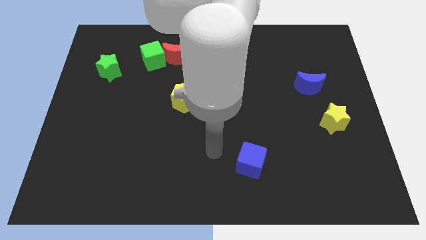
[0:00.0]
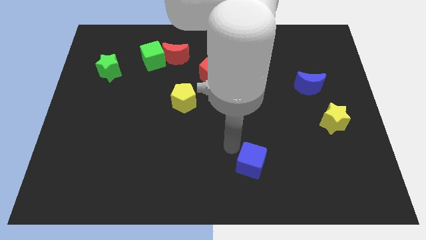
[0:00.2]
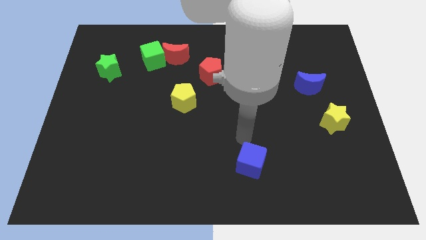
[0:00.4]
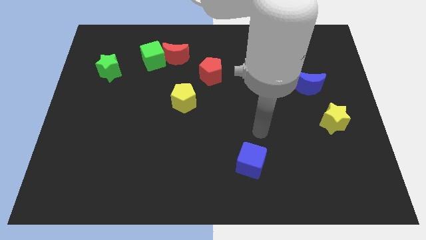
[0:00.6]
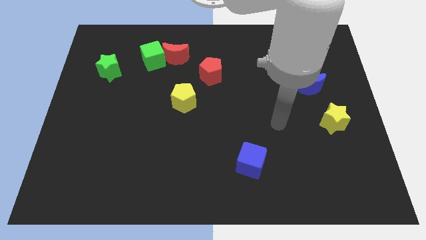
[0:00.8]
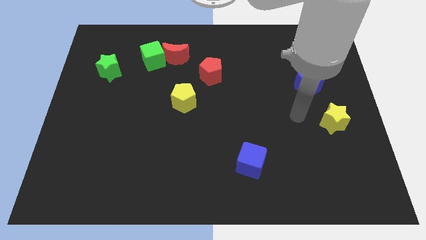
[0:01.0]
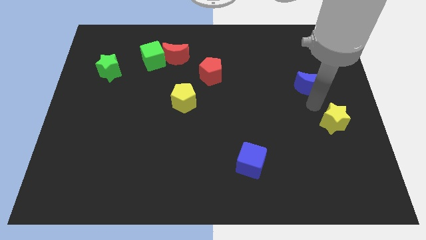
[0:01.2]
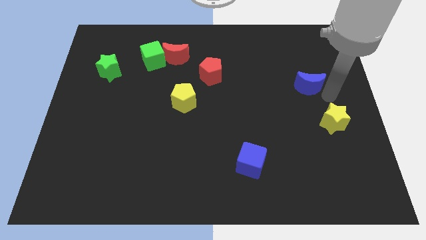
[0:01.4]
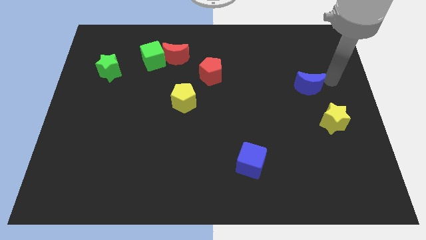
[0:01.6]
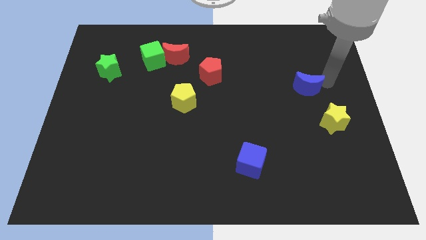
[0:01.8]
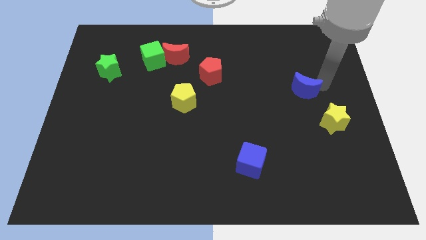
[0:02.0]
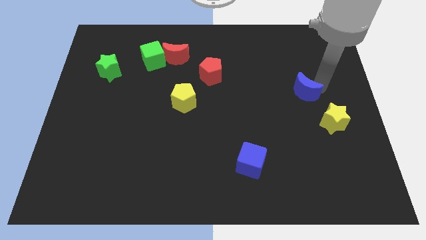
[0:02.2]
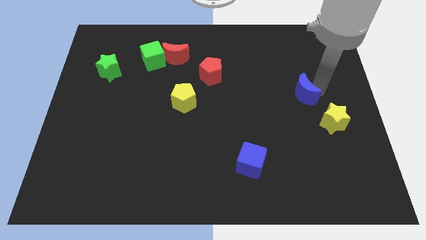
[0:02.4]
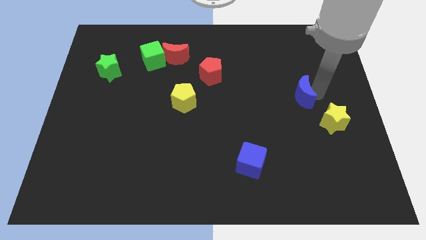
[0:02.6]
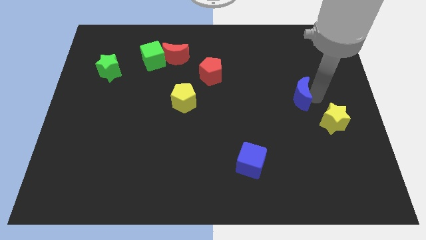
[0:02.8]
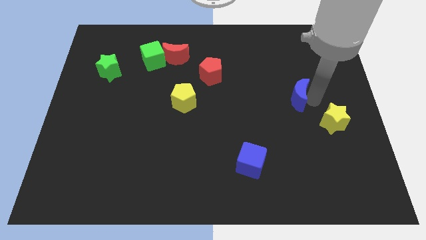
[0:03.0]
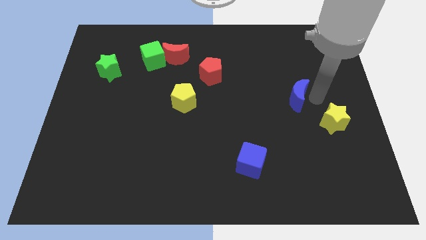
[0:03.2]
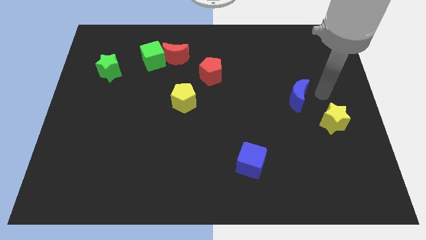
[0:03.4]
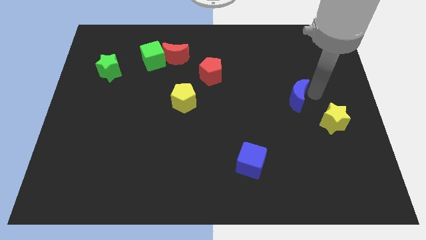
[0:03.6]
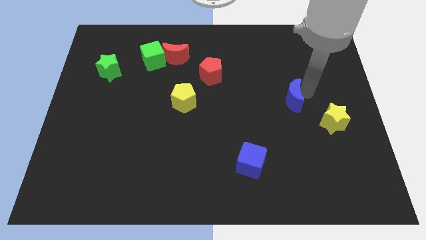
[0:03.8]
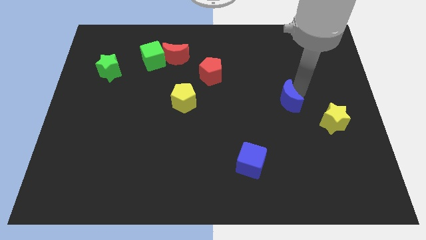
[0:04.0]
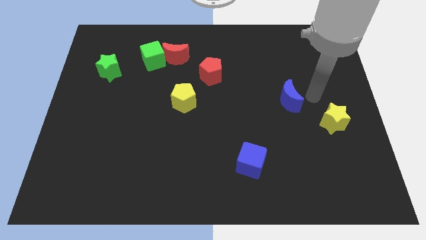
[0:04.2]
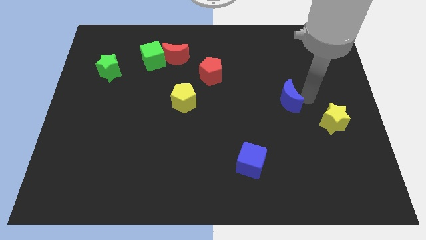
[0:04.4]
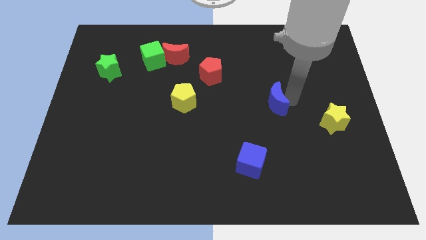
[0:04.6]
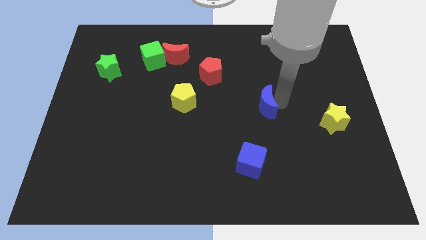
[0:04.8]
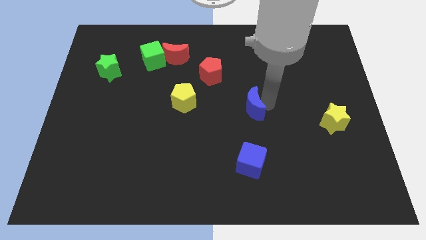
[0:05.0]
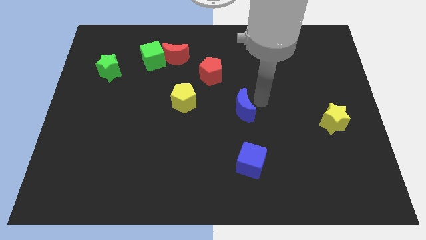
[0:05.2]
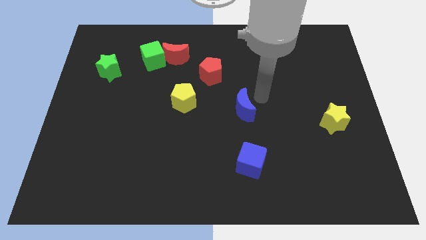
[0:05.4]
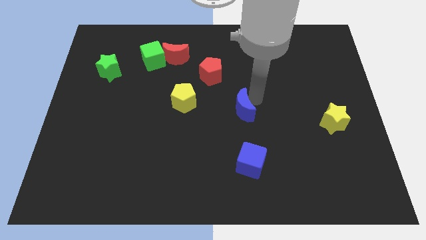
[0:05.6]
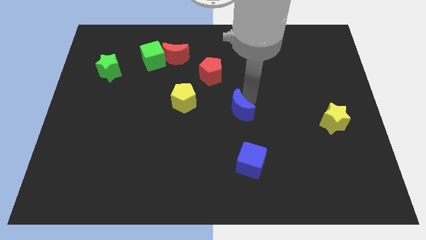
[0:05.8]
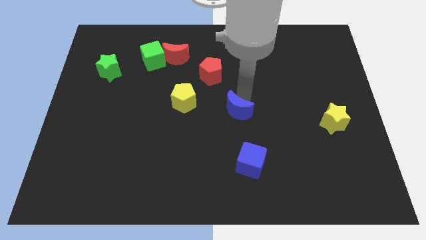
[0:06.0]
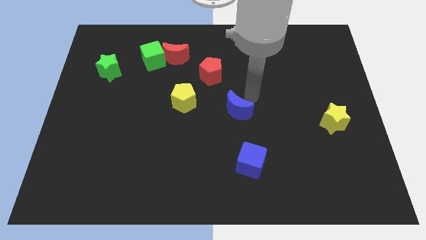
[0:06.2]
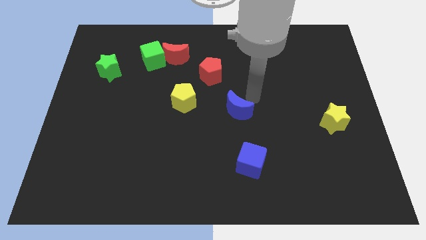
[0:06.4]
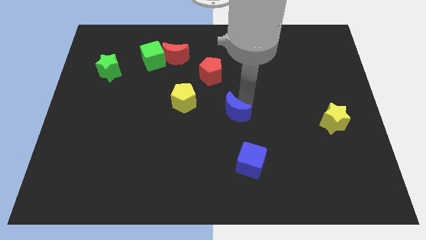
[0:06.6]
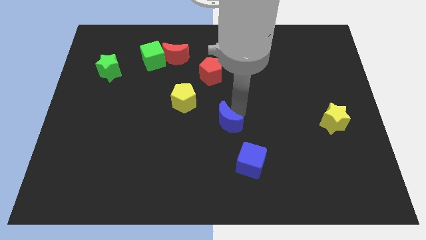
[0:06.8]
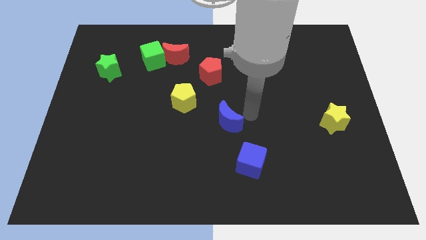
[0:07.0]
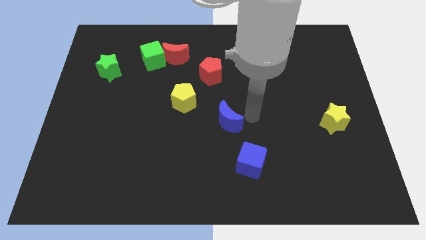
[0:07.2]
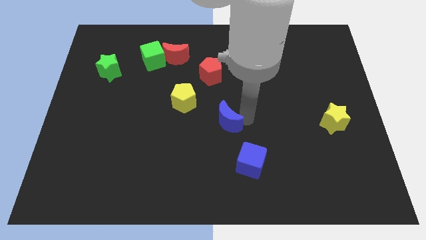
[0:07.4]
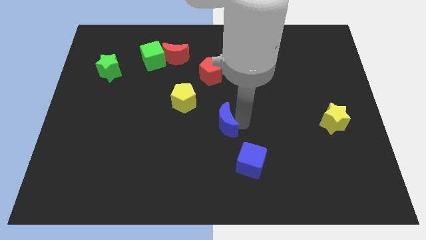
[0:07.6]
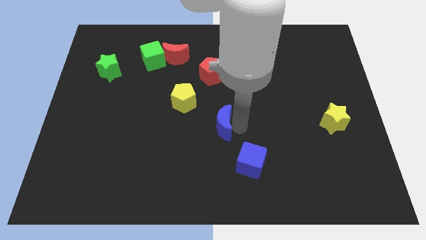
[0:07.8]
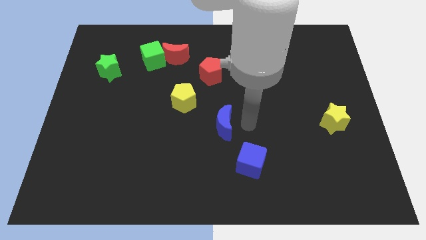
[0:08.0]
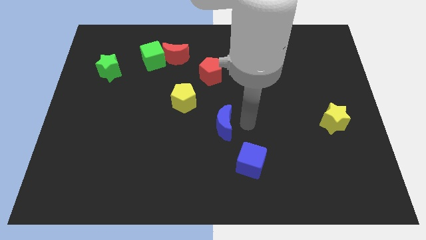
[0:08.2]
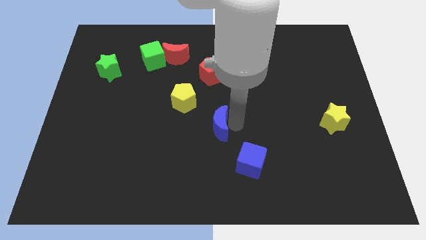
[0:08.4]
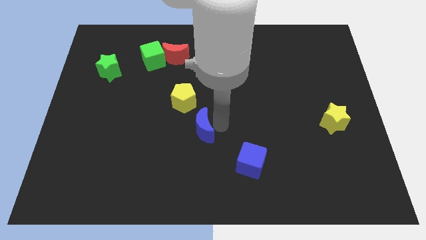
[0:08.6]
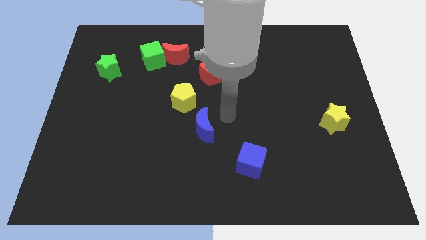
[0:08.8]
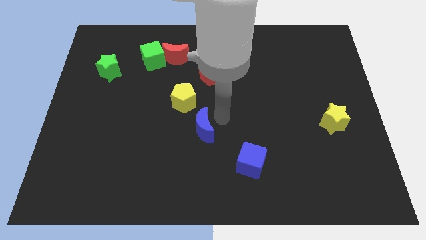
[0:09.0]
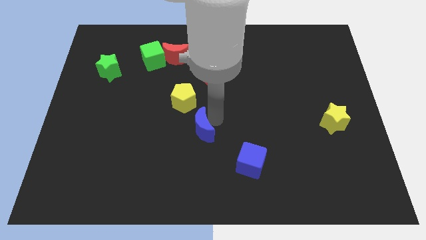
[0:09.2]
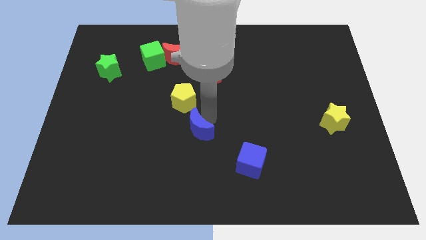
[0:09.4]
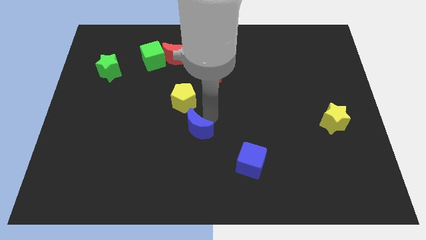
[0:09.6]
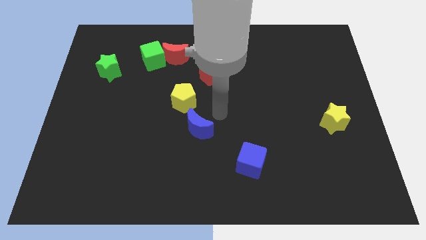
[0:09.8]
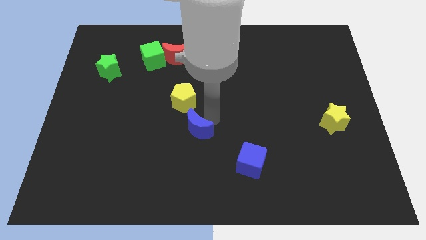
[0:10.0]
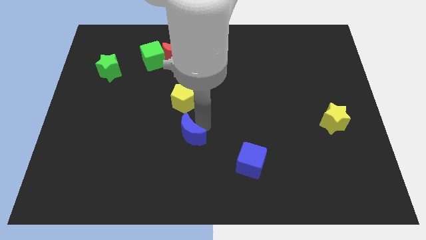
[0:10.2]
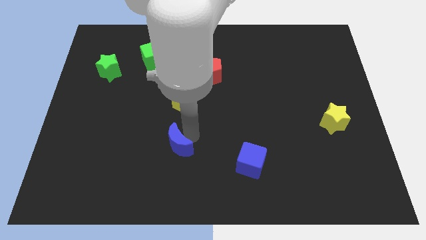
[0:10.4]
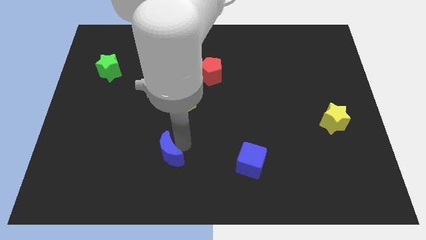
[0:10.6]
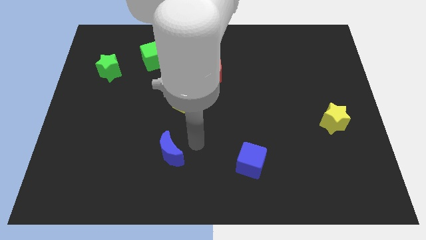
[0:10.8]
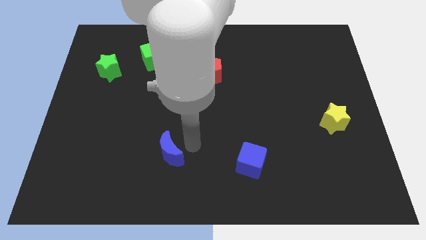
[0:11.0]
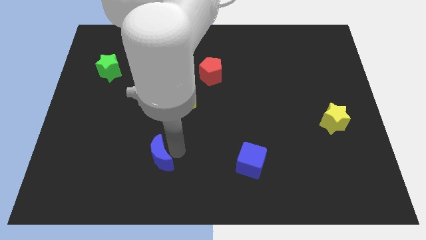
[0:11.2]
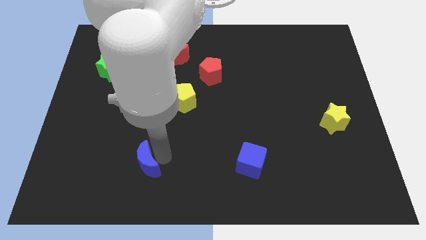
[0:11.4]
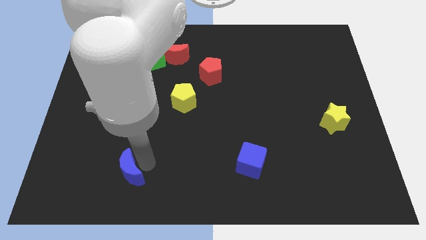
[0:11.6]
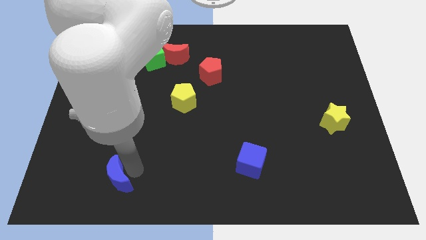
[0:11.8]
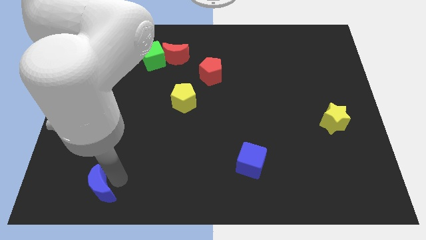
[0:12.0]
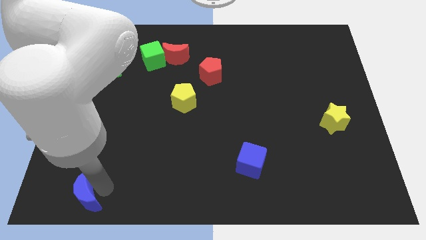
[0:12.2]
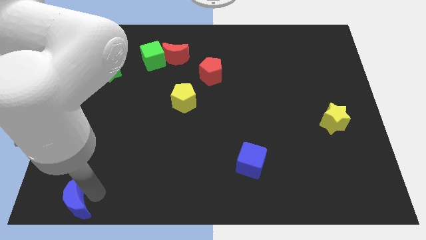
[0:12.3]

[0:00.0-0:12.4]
push the blue moon to the bottom left
